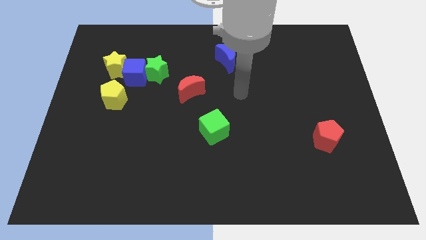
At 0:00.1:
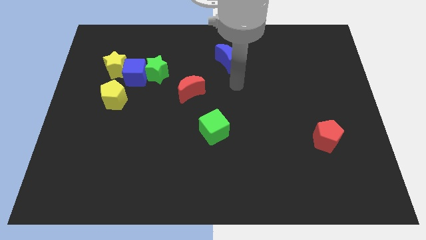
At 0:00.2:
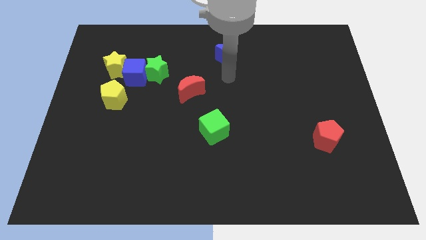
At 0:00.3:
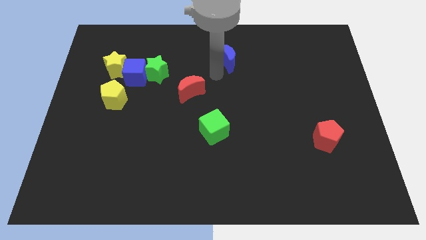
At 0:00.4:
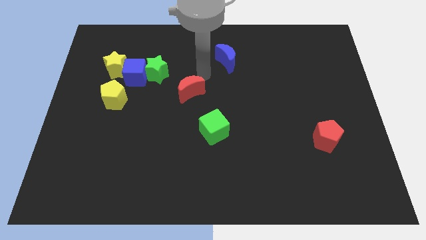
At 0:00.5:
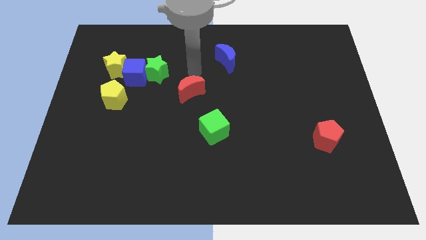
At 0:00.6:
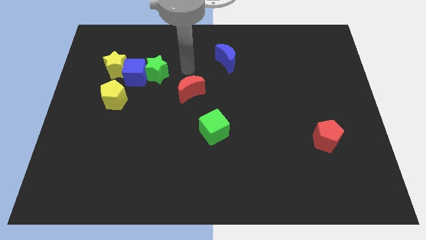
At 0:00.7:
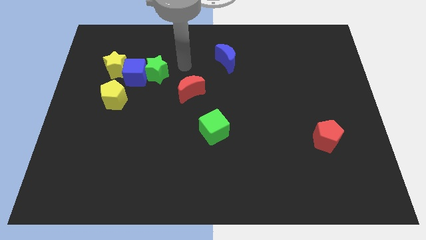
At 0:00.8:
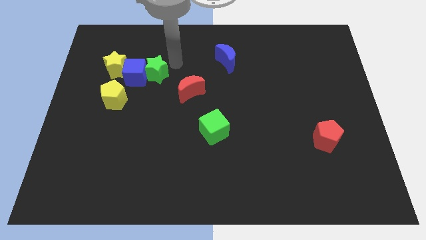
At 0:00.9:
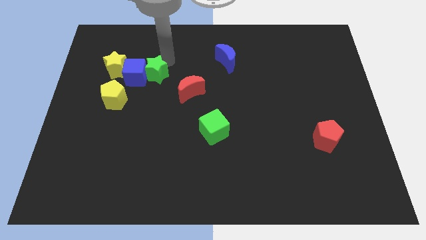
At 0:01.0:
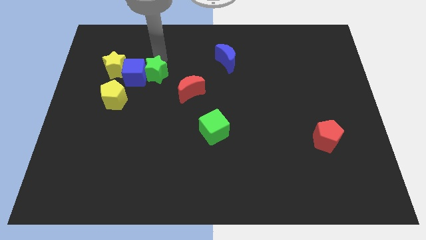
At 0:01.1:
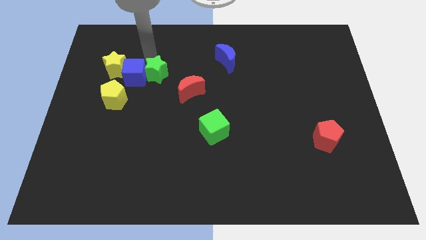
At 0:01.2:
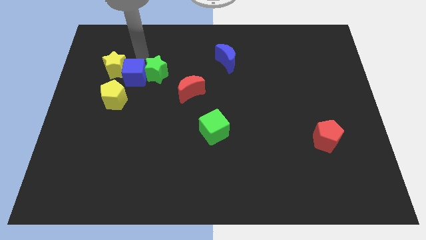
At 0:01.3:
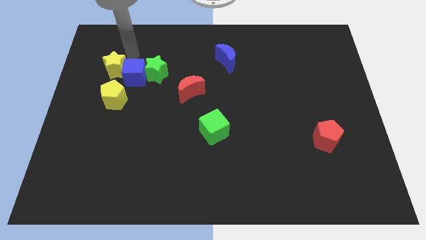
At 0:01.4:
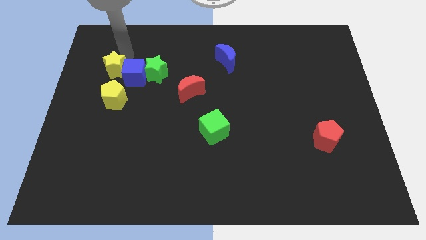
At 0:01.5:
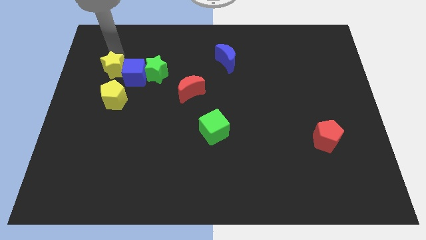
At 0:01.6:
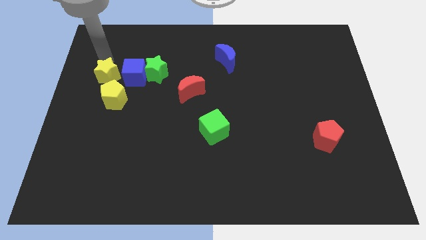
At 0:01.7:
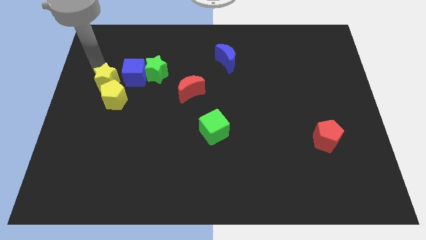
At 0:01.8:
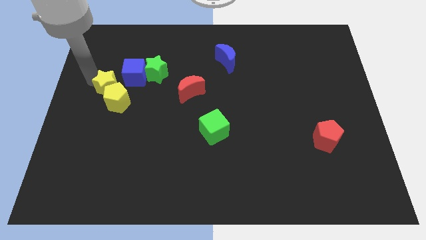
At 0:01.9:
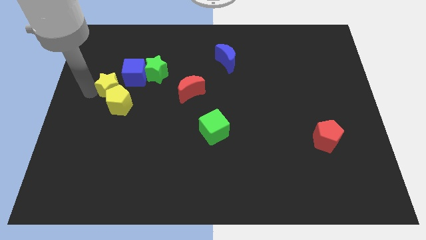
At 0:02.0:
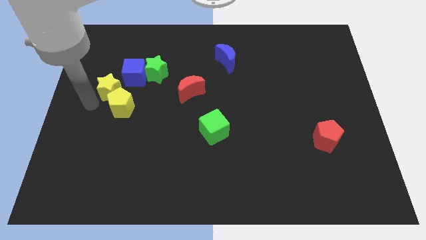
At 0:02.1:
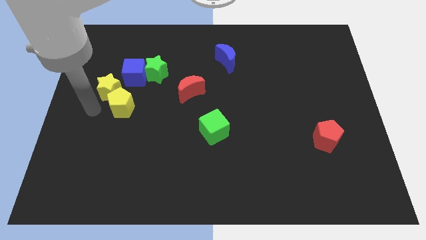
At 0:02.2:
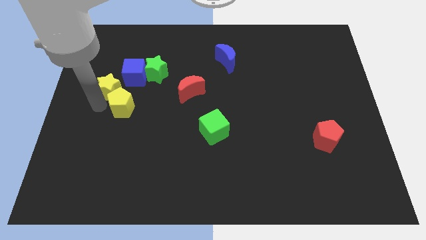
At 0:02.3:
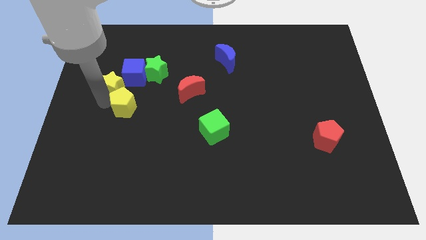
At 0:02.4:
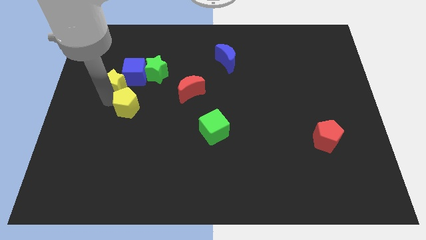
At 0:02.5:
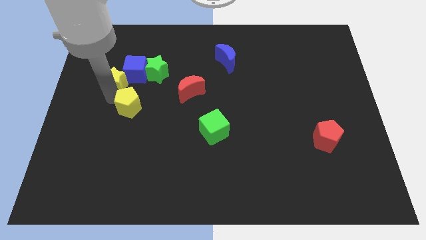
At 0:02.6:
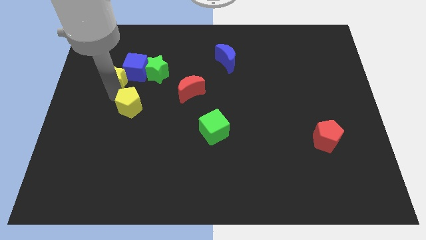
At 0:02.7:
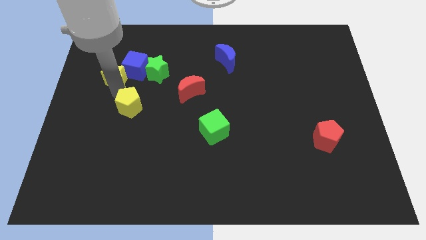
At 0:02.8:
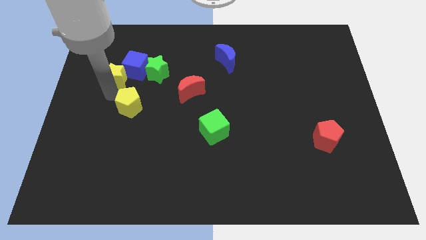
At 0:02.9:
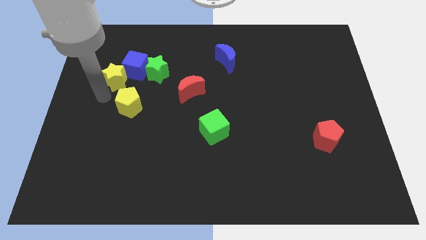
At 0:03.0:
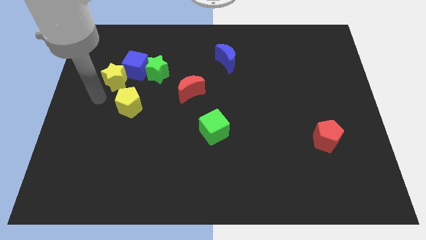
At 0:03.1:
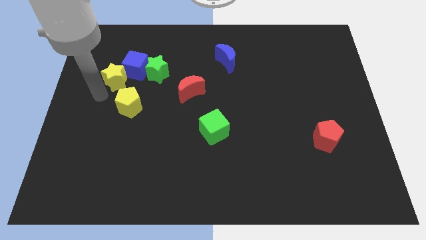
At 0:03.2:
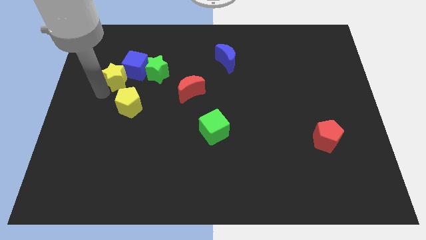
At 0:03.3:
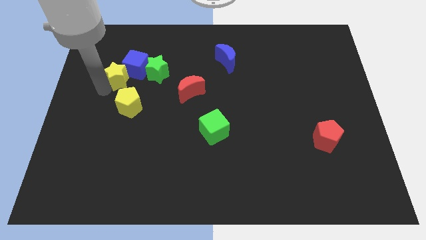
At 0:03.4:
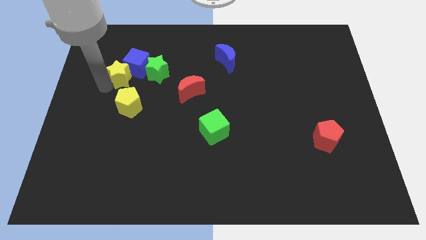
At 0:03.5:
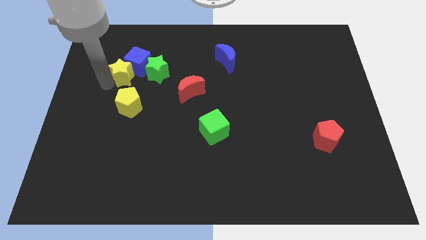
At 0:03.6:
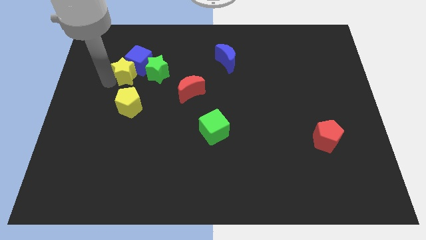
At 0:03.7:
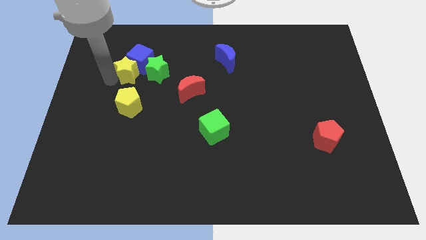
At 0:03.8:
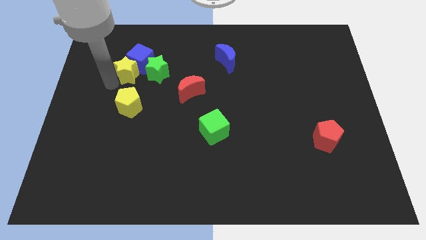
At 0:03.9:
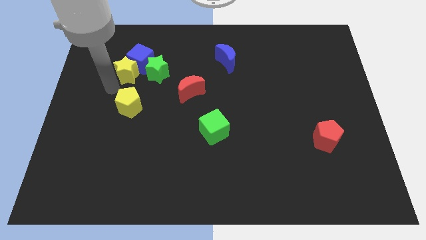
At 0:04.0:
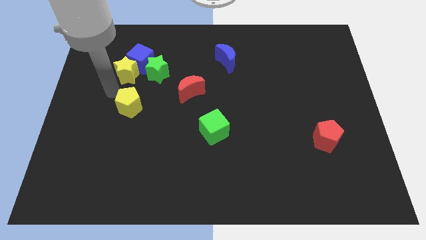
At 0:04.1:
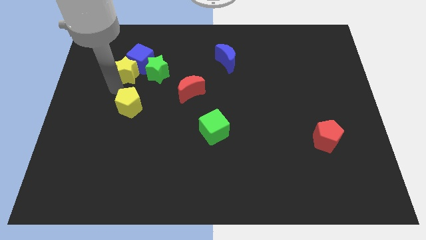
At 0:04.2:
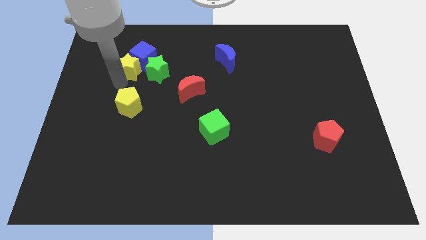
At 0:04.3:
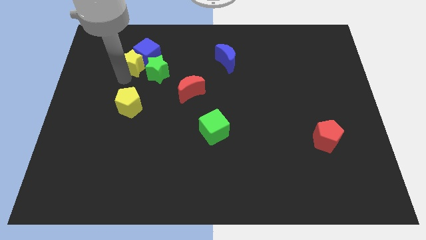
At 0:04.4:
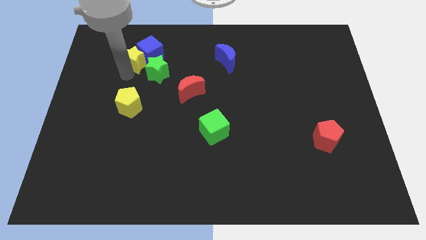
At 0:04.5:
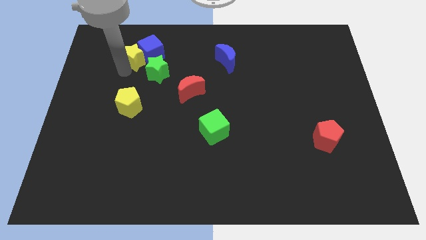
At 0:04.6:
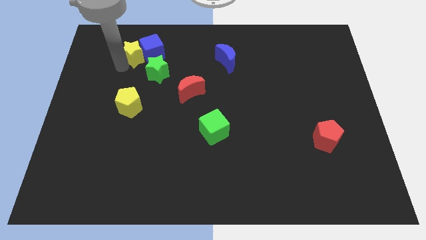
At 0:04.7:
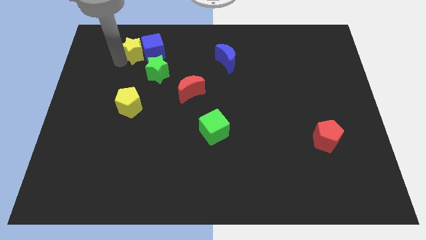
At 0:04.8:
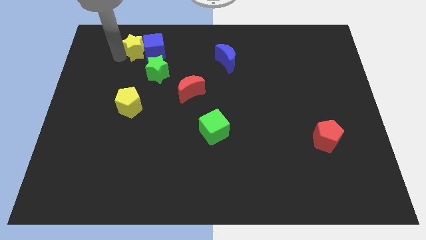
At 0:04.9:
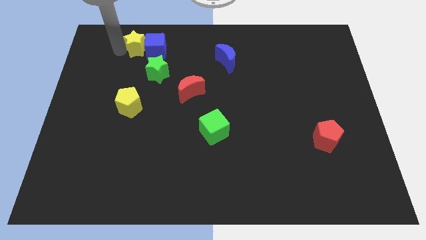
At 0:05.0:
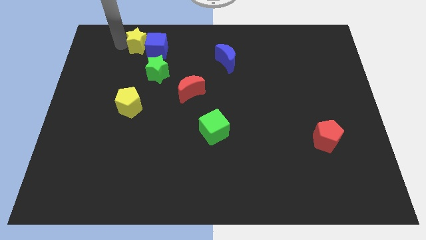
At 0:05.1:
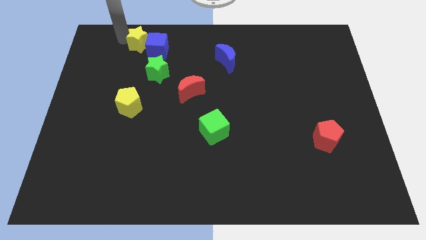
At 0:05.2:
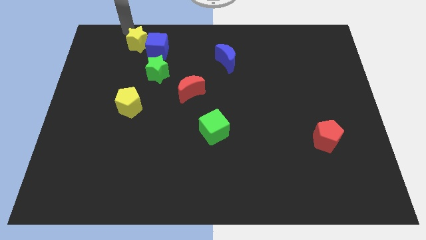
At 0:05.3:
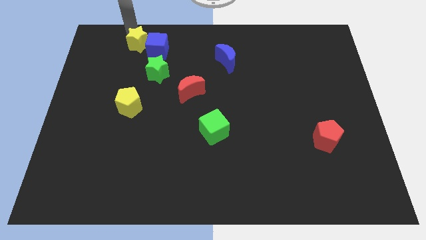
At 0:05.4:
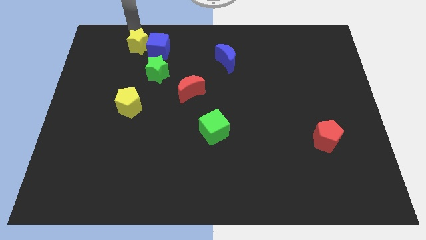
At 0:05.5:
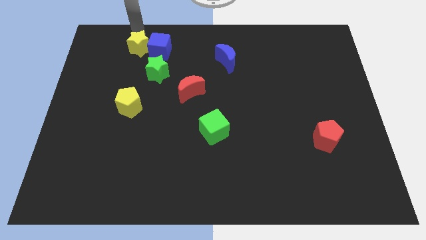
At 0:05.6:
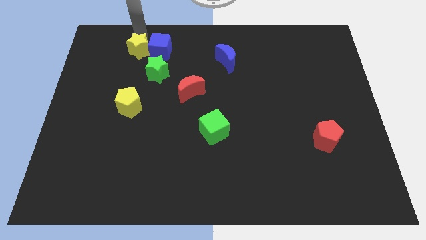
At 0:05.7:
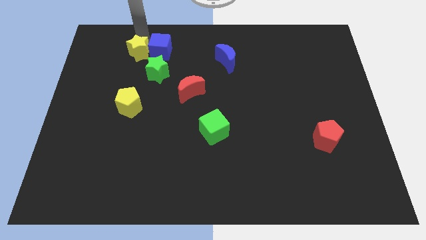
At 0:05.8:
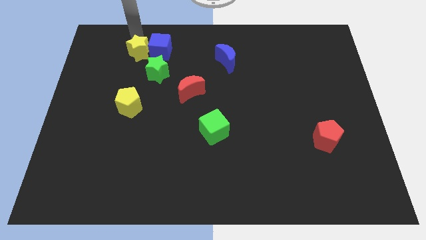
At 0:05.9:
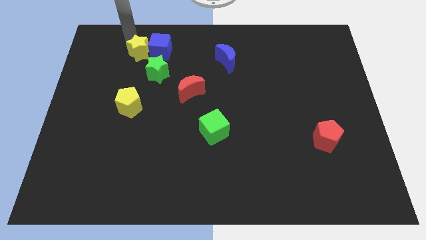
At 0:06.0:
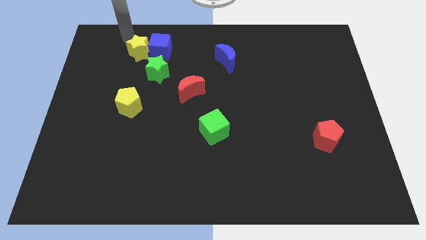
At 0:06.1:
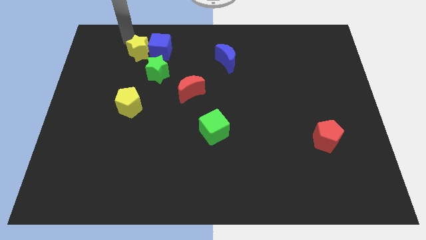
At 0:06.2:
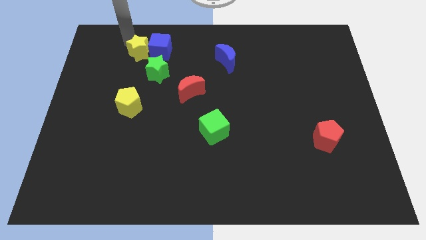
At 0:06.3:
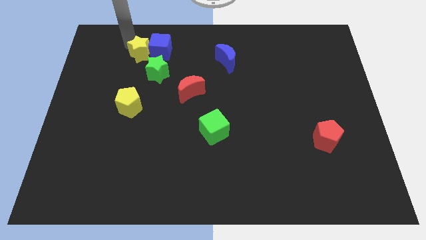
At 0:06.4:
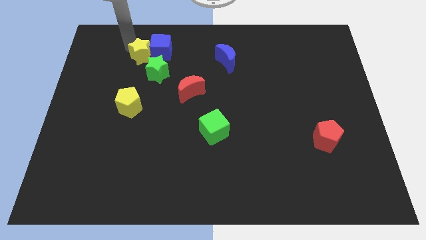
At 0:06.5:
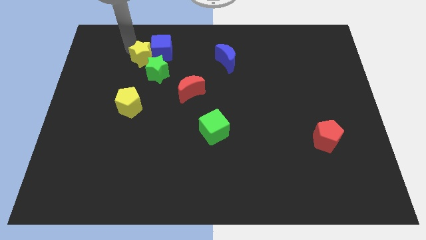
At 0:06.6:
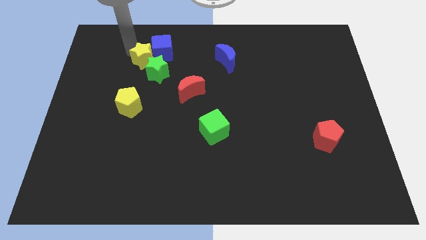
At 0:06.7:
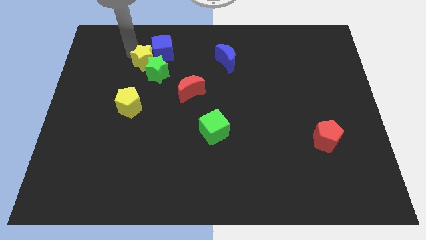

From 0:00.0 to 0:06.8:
move the yellow star to the green star
